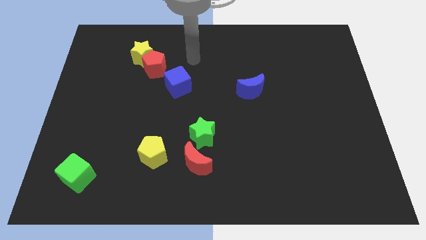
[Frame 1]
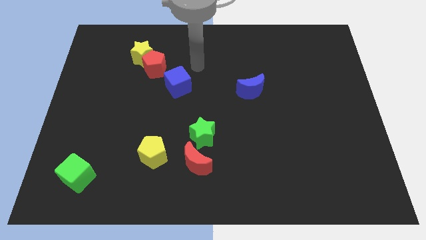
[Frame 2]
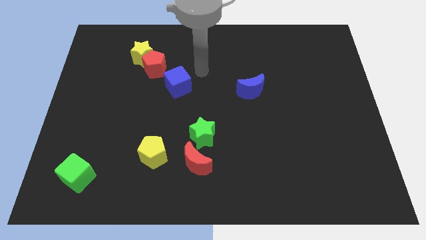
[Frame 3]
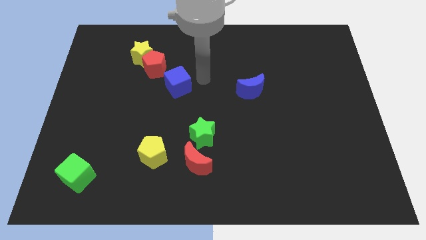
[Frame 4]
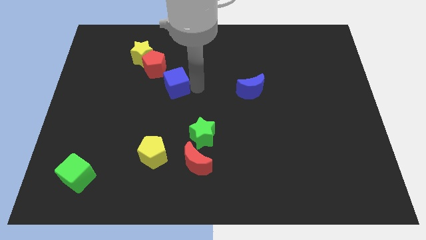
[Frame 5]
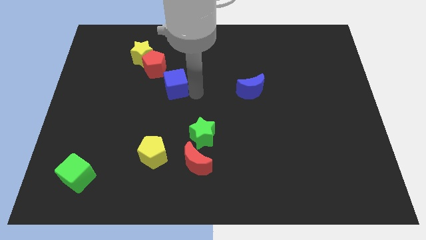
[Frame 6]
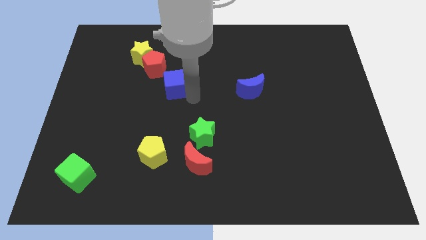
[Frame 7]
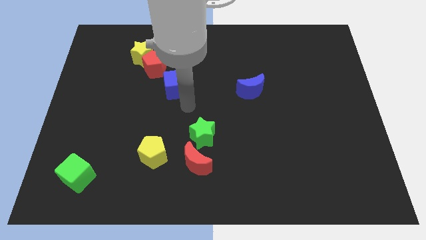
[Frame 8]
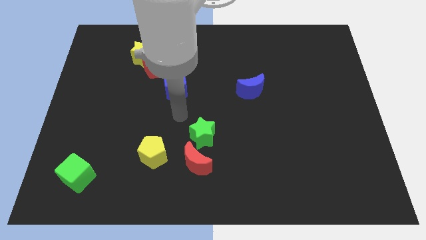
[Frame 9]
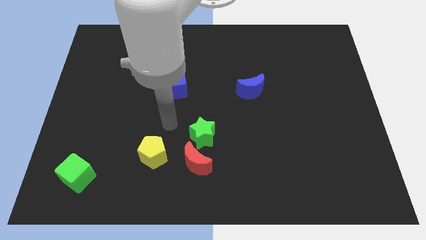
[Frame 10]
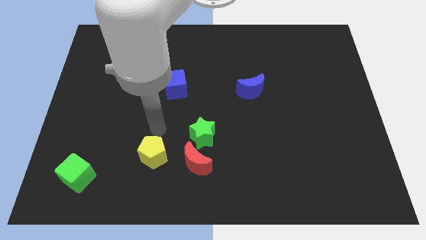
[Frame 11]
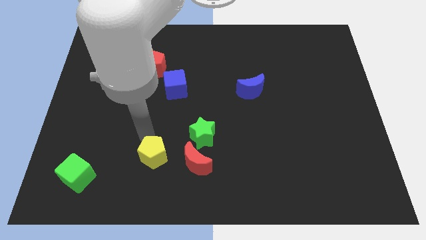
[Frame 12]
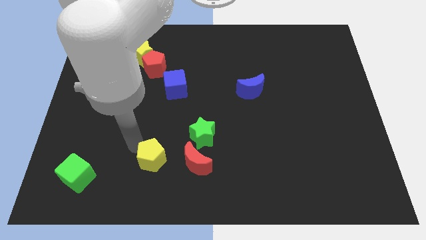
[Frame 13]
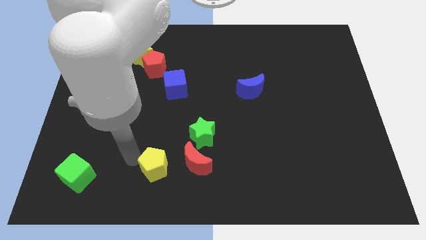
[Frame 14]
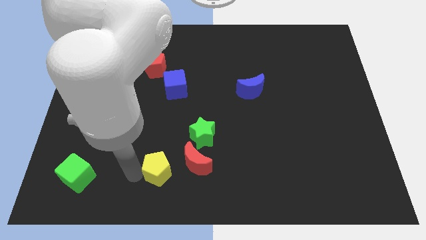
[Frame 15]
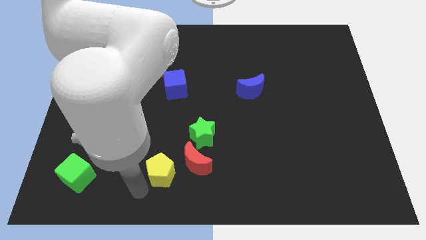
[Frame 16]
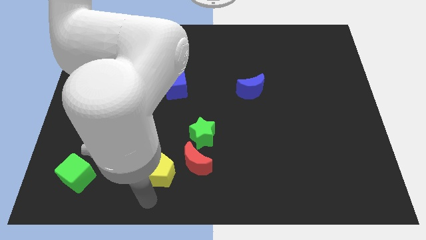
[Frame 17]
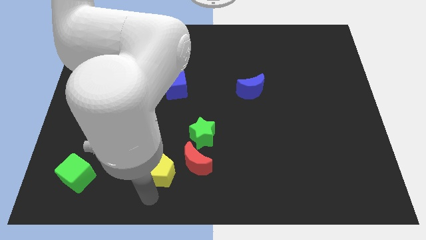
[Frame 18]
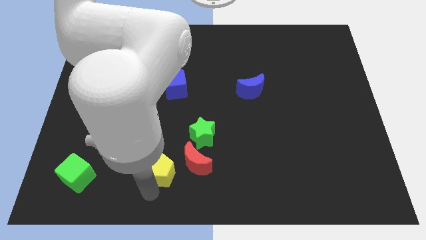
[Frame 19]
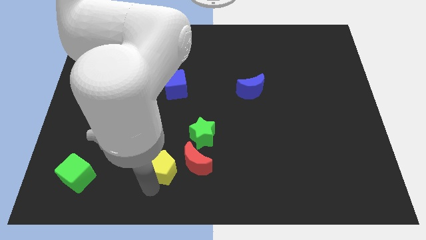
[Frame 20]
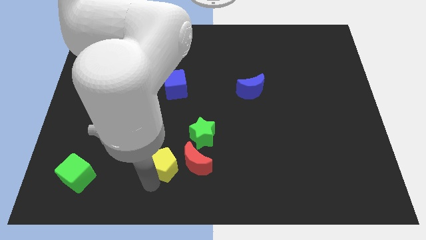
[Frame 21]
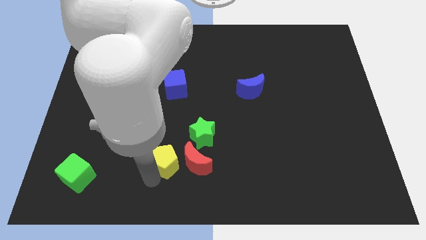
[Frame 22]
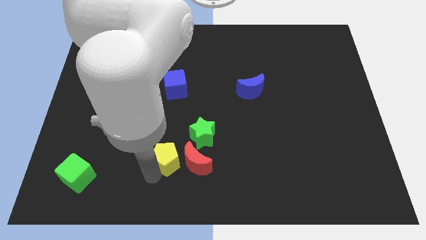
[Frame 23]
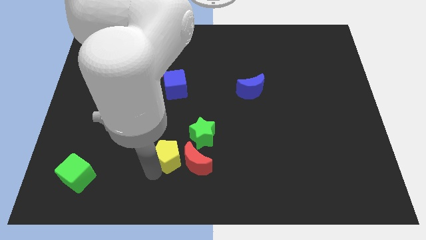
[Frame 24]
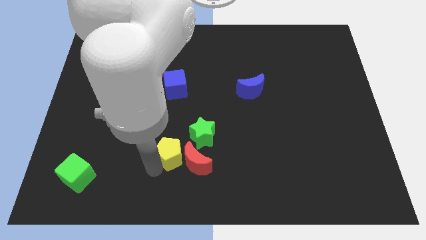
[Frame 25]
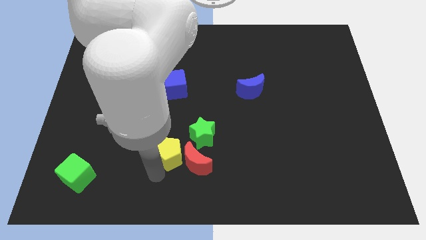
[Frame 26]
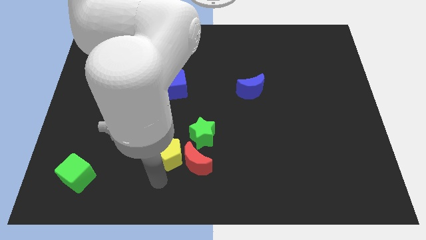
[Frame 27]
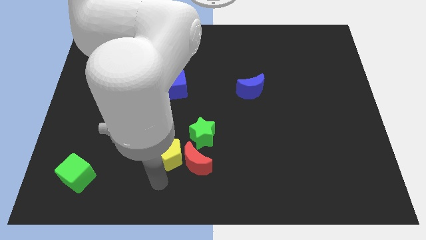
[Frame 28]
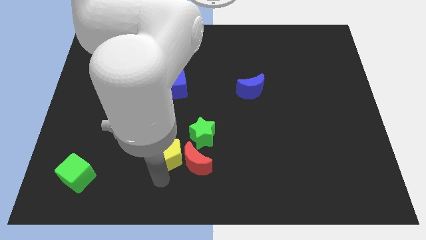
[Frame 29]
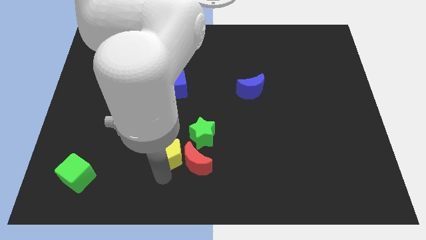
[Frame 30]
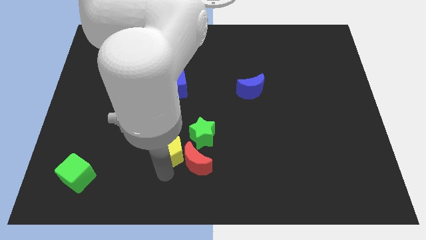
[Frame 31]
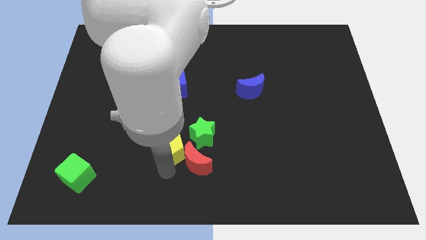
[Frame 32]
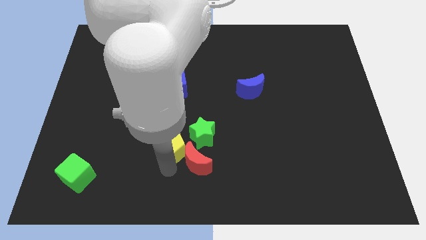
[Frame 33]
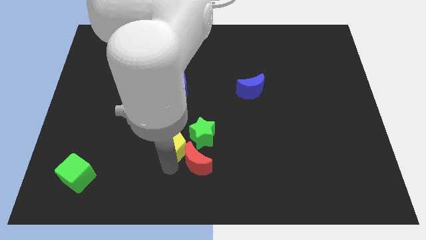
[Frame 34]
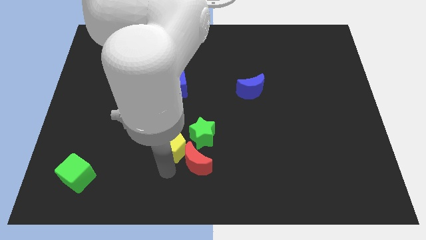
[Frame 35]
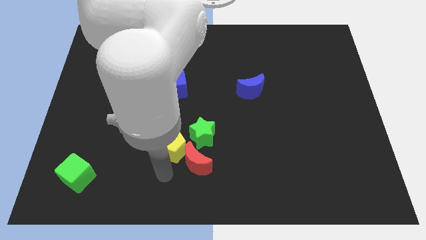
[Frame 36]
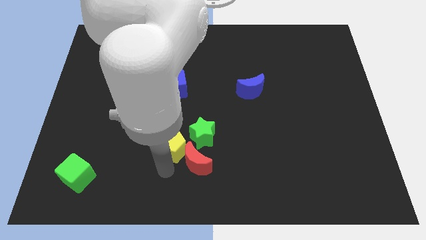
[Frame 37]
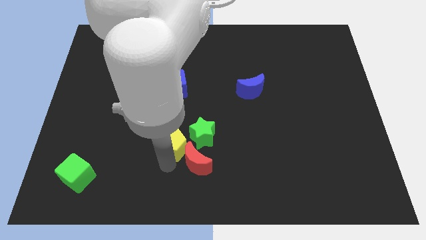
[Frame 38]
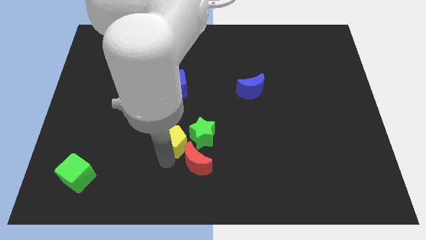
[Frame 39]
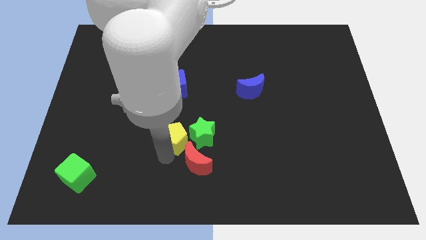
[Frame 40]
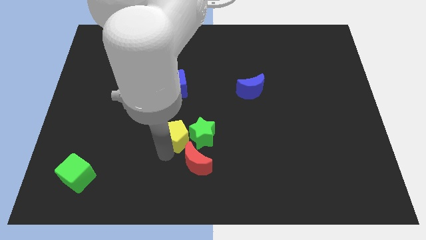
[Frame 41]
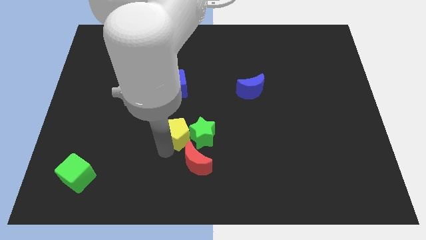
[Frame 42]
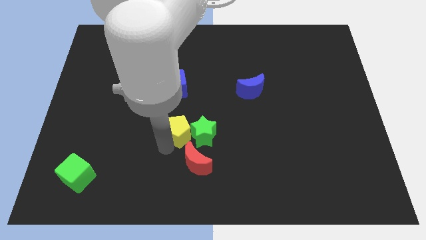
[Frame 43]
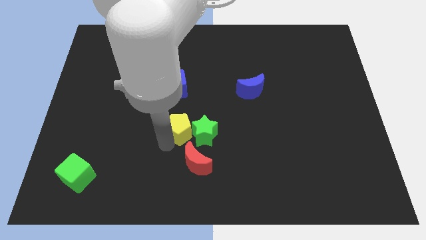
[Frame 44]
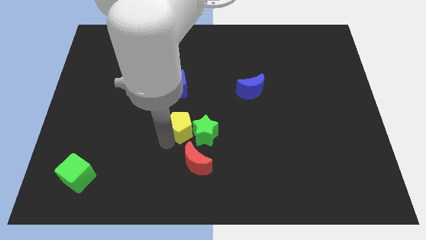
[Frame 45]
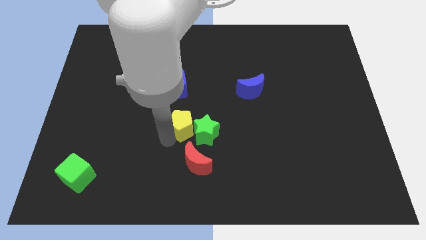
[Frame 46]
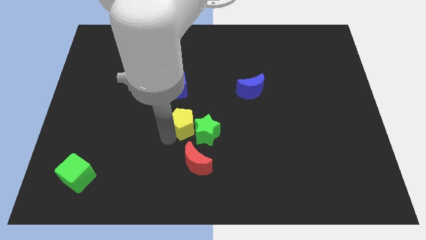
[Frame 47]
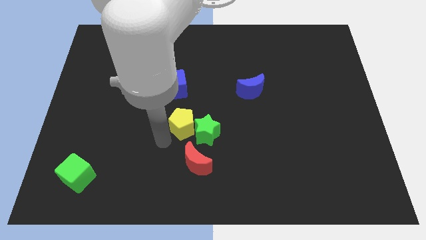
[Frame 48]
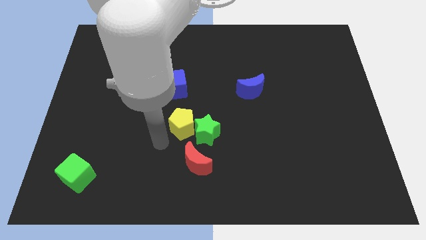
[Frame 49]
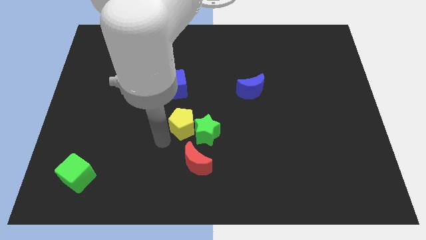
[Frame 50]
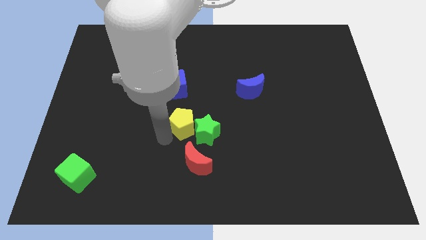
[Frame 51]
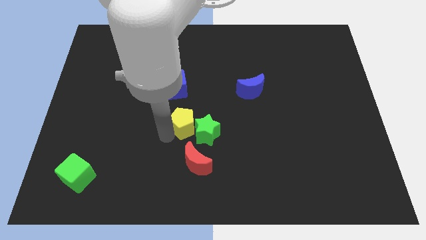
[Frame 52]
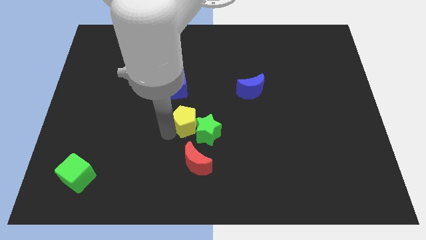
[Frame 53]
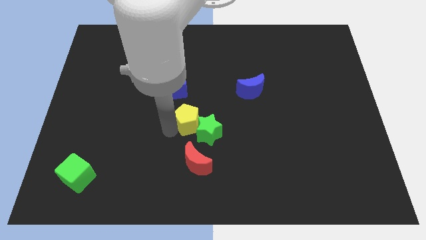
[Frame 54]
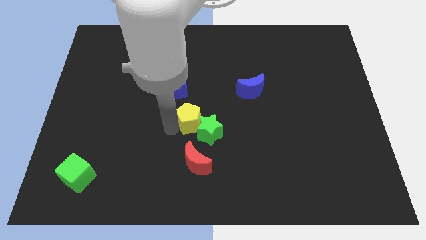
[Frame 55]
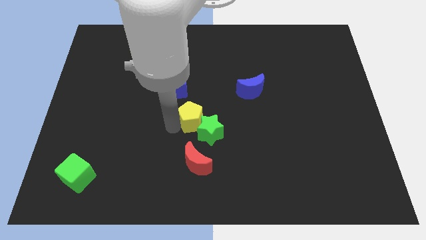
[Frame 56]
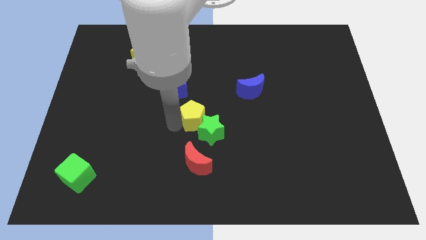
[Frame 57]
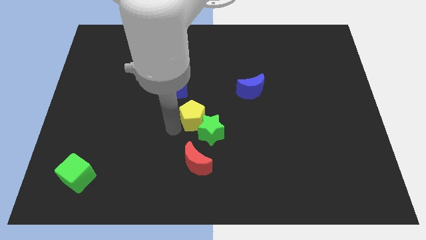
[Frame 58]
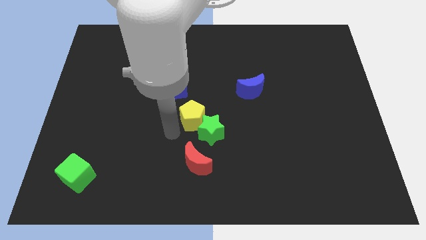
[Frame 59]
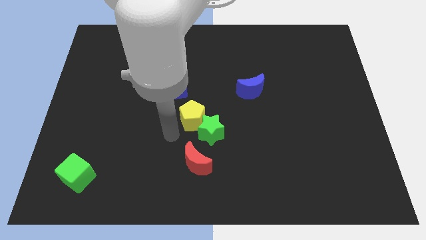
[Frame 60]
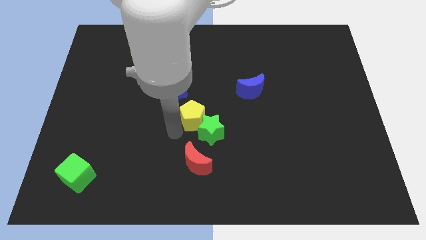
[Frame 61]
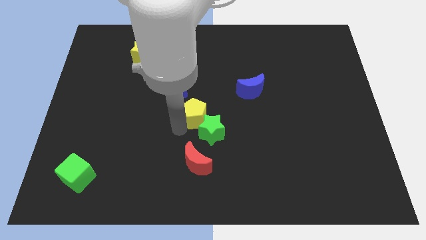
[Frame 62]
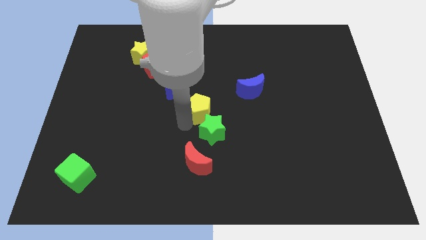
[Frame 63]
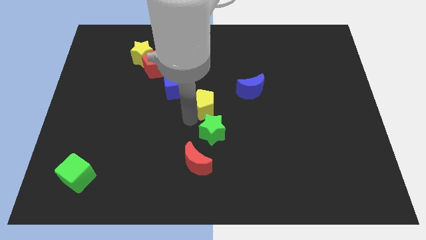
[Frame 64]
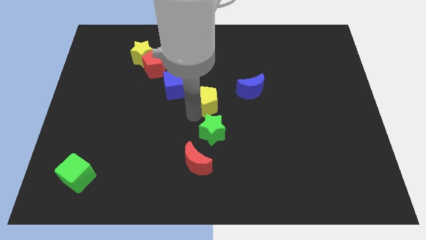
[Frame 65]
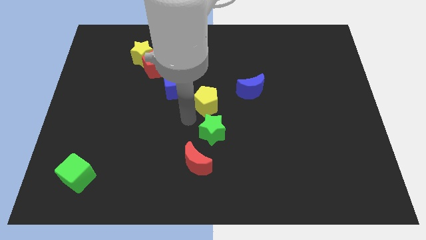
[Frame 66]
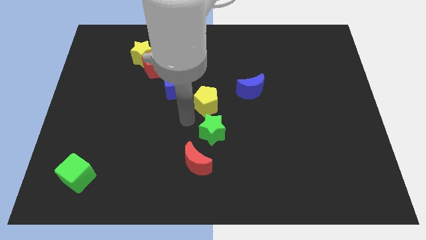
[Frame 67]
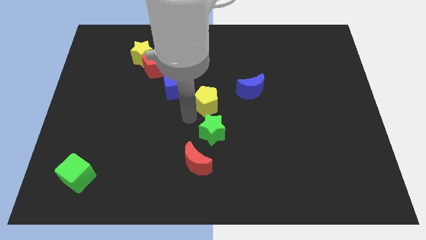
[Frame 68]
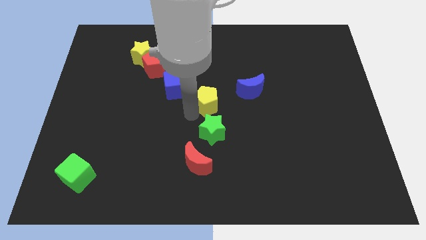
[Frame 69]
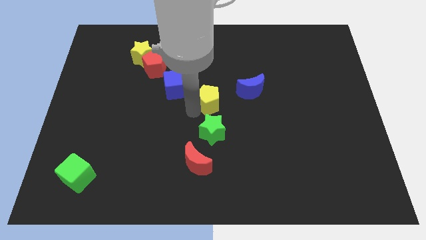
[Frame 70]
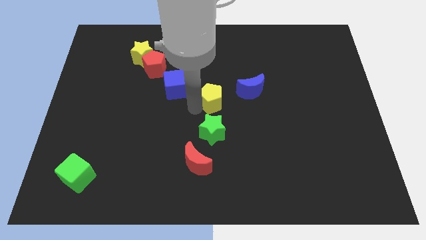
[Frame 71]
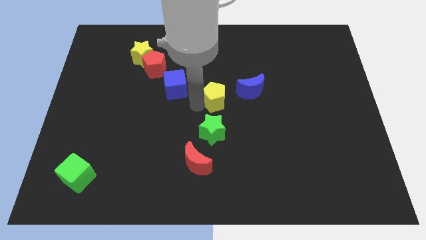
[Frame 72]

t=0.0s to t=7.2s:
move the yellow pentagon up and then to the right

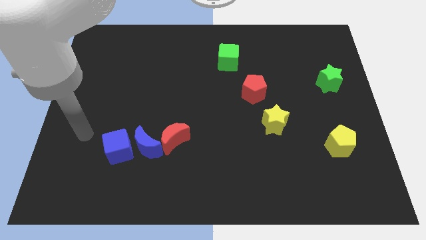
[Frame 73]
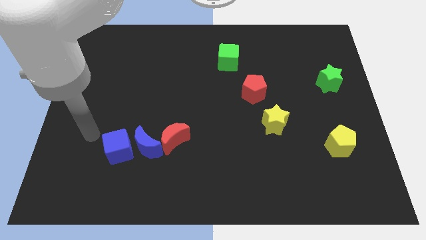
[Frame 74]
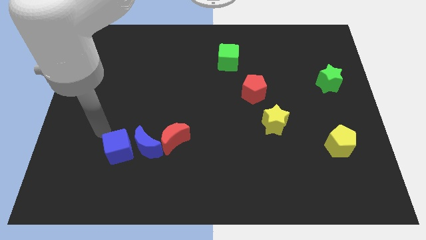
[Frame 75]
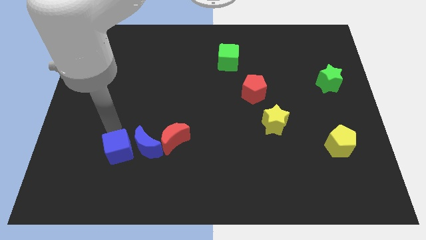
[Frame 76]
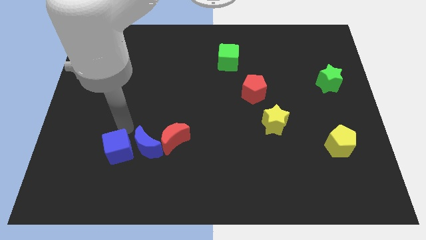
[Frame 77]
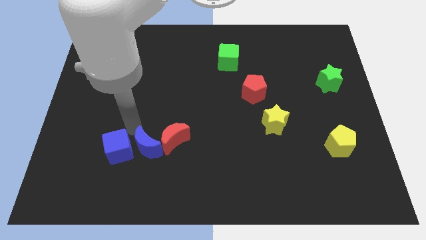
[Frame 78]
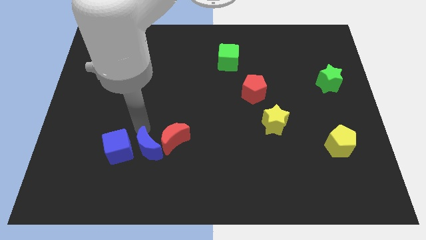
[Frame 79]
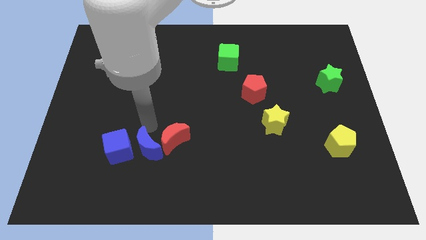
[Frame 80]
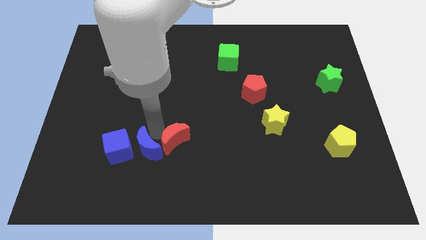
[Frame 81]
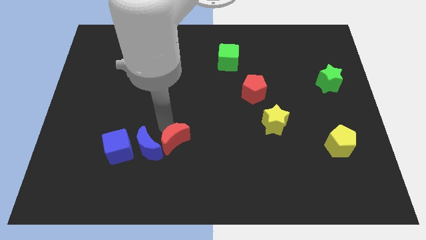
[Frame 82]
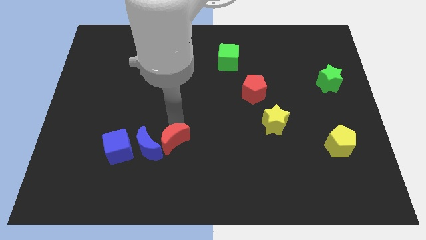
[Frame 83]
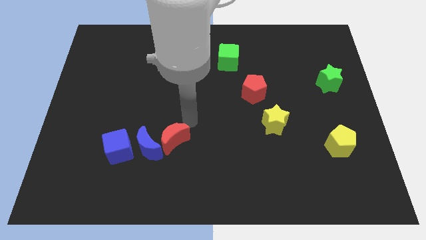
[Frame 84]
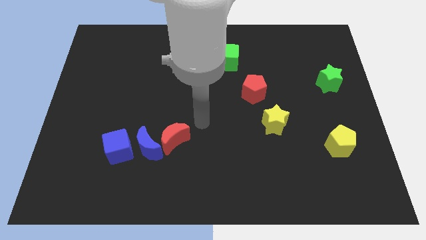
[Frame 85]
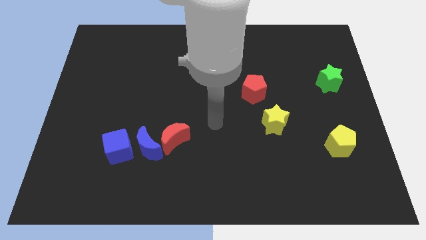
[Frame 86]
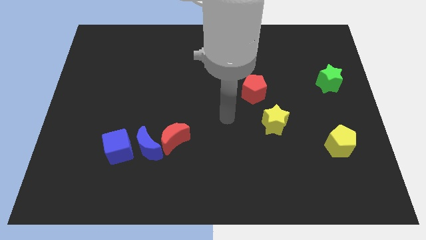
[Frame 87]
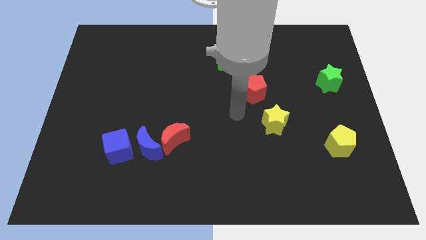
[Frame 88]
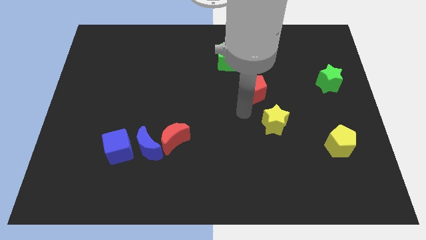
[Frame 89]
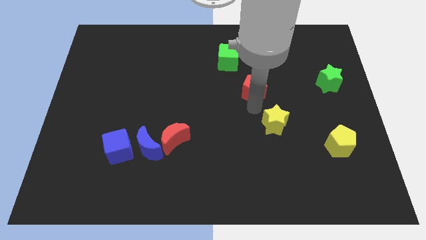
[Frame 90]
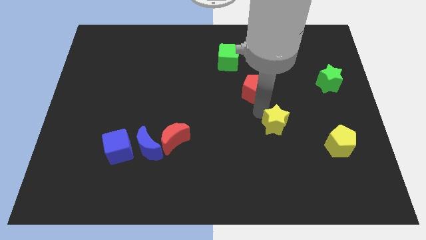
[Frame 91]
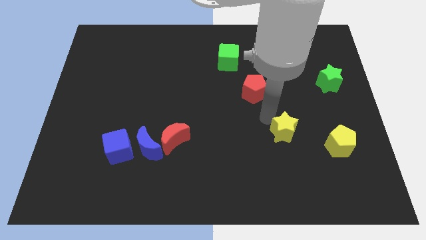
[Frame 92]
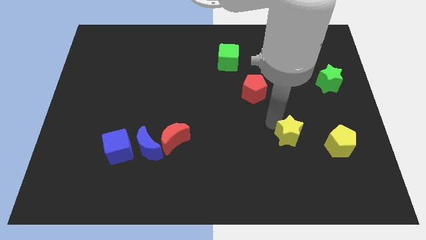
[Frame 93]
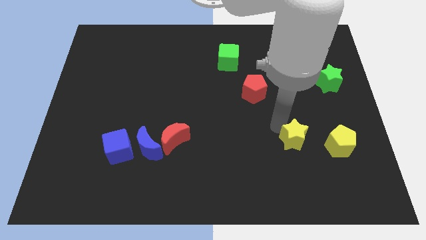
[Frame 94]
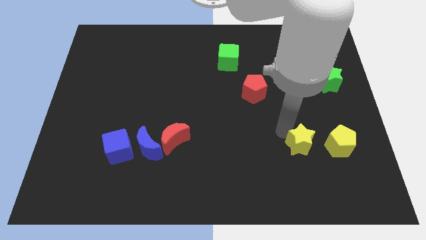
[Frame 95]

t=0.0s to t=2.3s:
move the yellow star down and right a little bit
